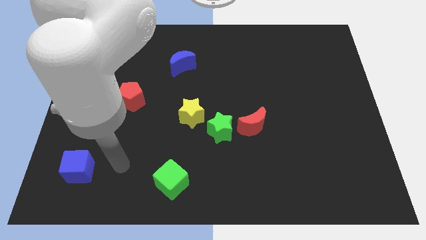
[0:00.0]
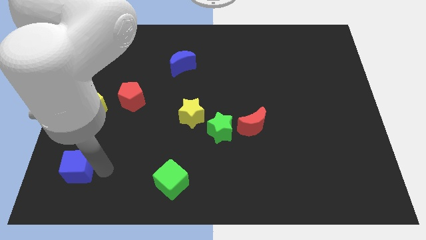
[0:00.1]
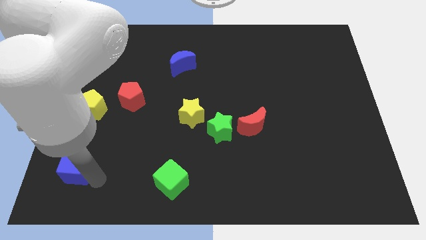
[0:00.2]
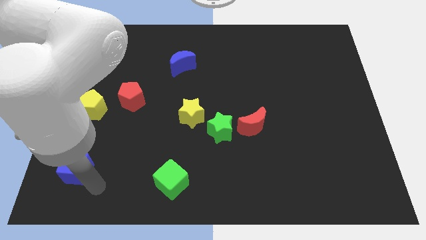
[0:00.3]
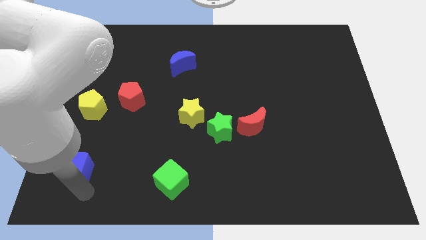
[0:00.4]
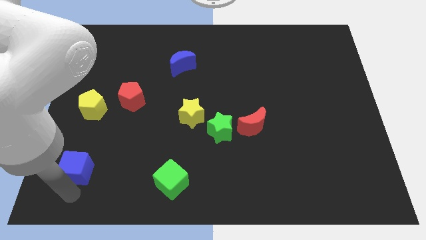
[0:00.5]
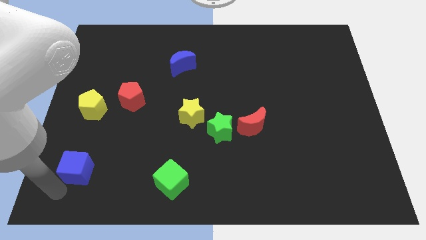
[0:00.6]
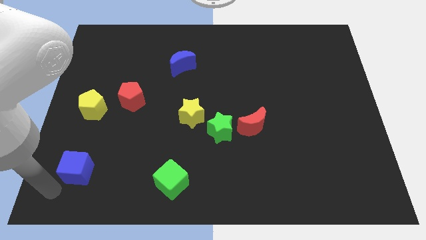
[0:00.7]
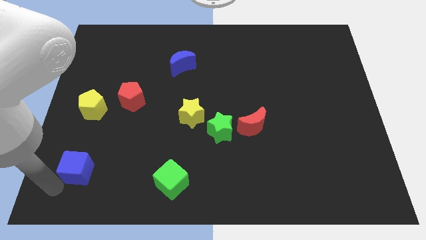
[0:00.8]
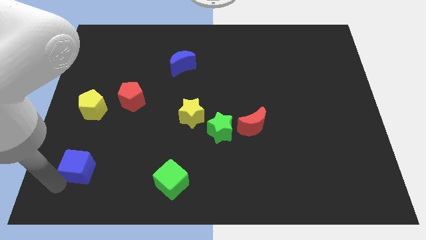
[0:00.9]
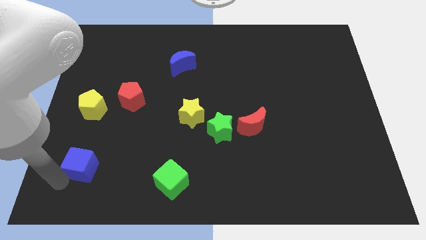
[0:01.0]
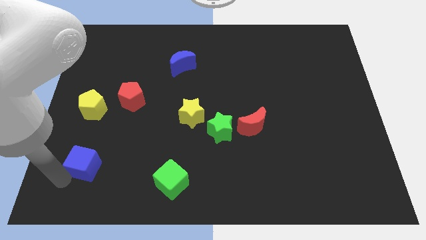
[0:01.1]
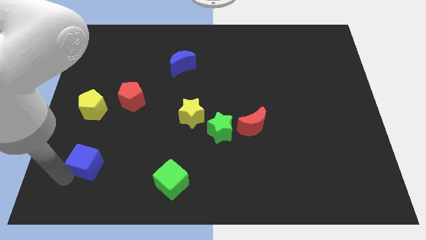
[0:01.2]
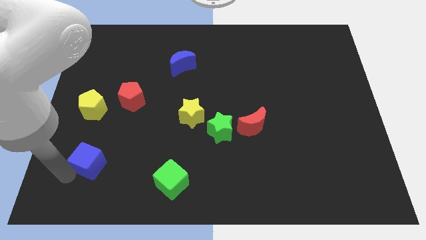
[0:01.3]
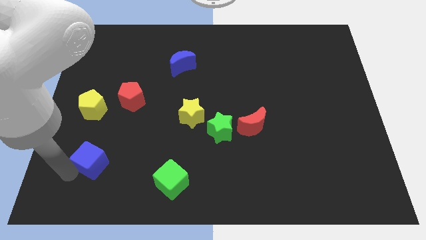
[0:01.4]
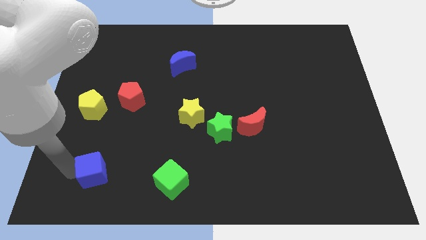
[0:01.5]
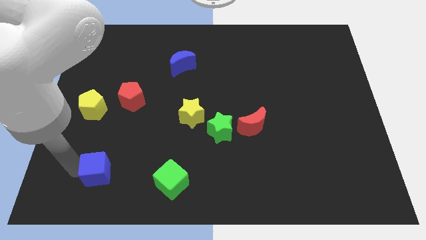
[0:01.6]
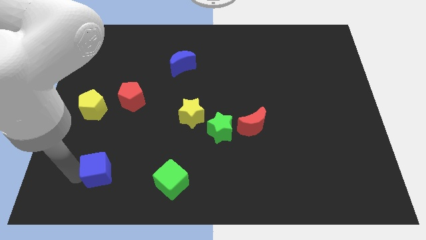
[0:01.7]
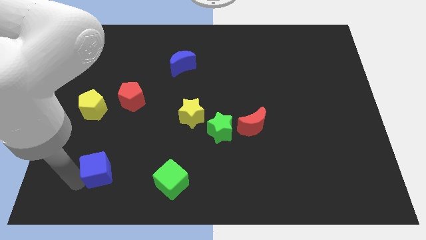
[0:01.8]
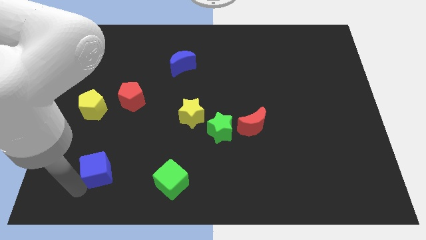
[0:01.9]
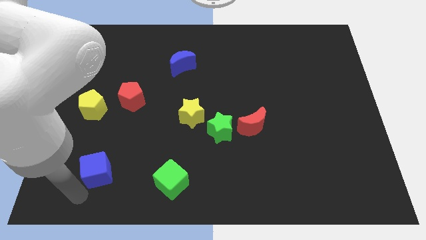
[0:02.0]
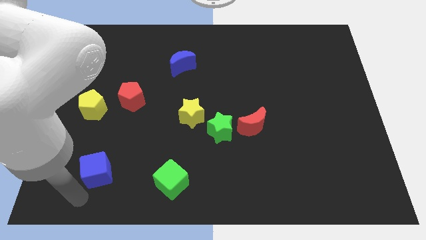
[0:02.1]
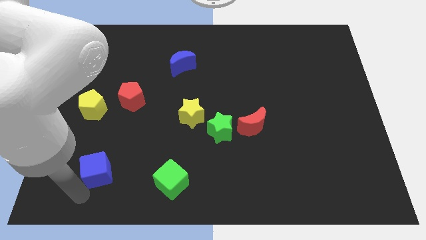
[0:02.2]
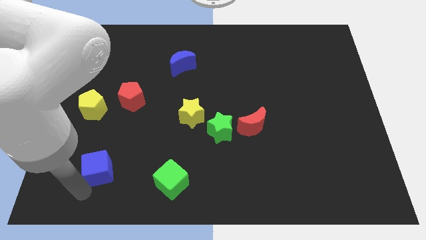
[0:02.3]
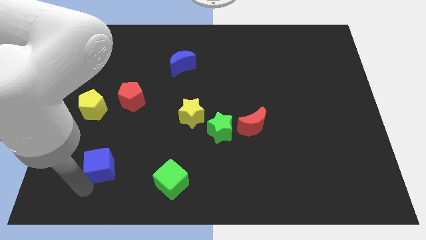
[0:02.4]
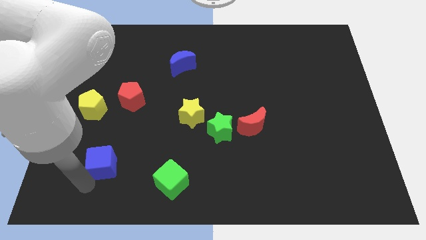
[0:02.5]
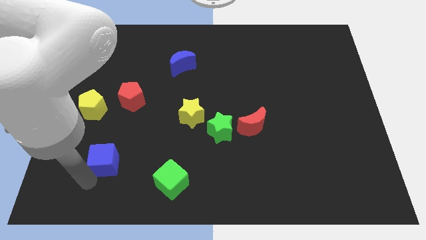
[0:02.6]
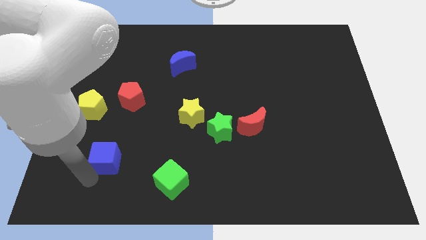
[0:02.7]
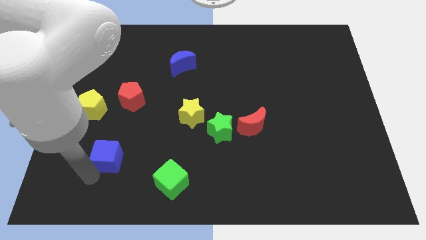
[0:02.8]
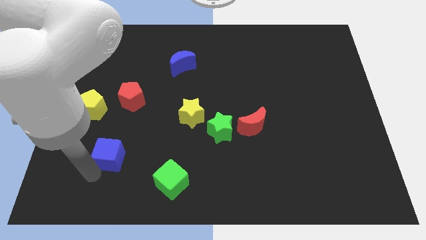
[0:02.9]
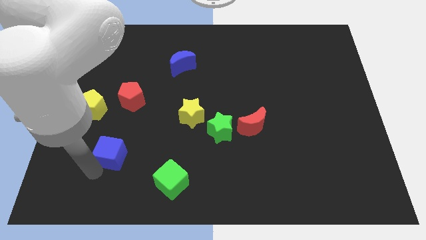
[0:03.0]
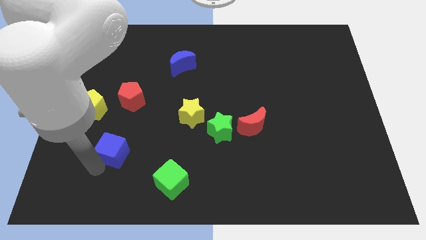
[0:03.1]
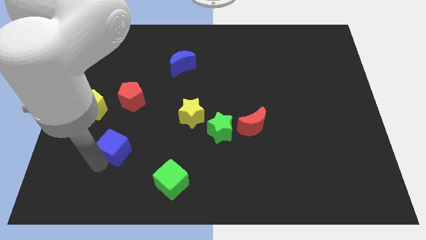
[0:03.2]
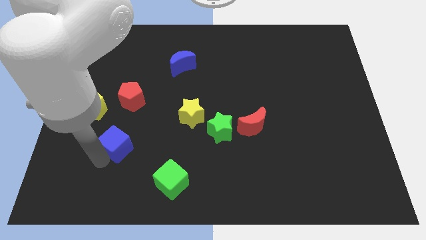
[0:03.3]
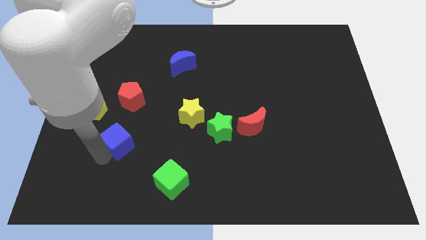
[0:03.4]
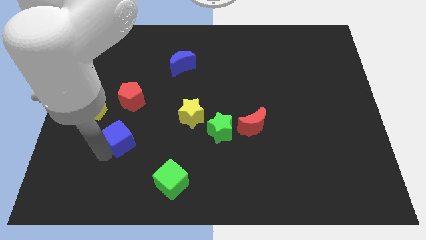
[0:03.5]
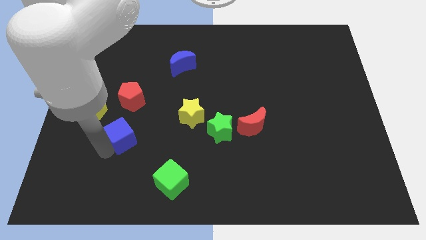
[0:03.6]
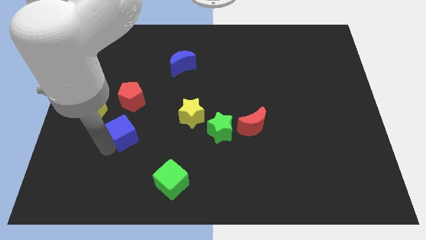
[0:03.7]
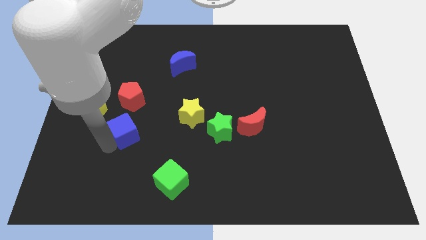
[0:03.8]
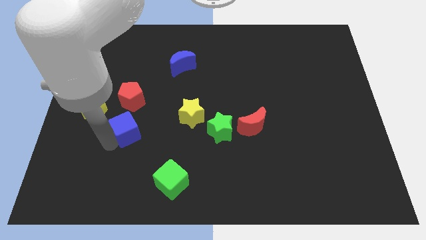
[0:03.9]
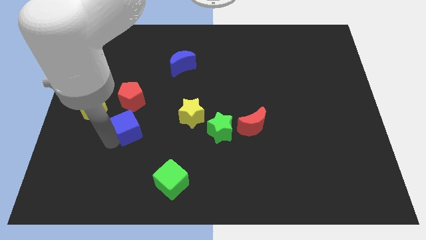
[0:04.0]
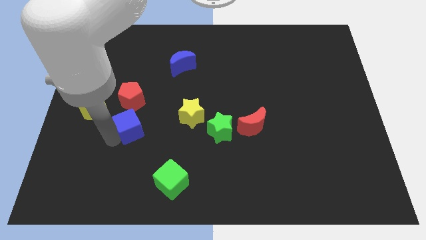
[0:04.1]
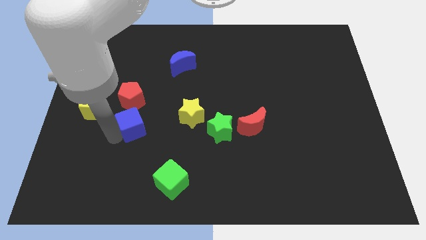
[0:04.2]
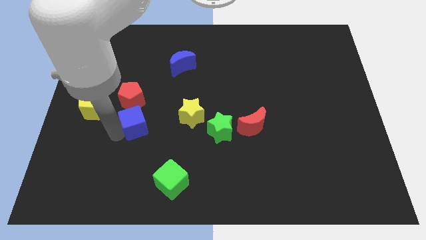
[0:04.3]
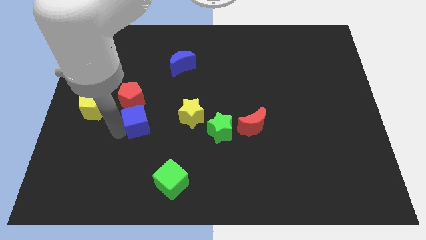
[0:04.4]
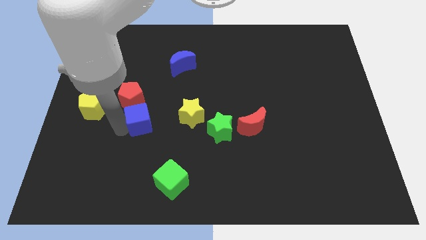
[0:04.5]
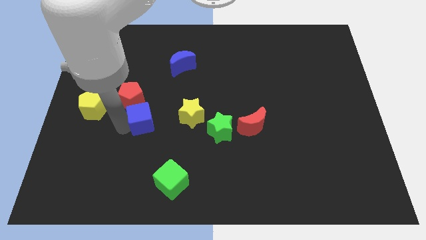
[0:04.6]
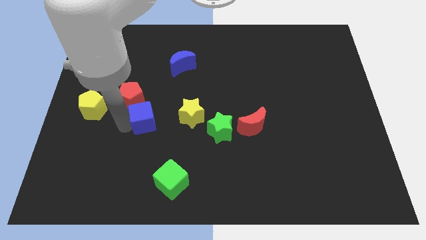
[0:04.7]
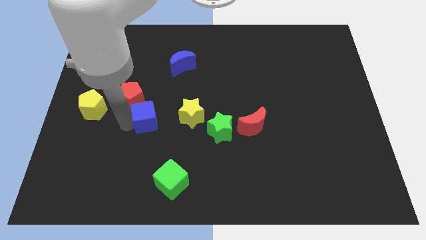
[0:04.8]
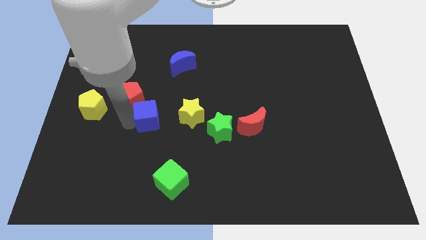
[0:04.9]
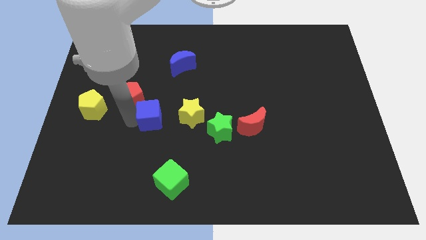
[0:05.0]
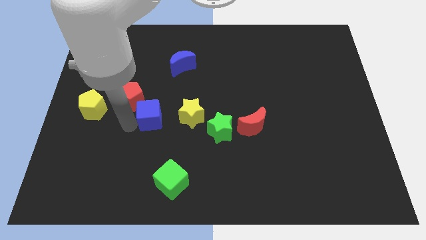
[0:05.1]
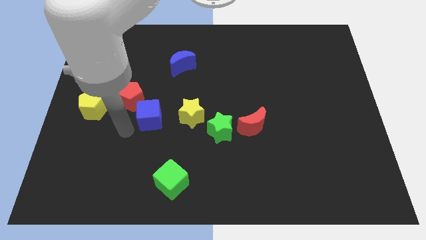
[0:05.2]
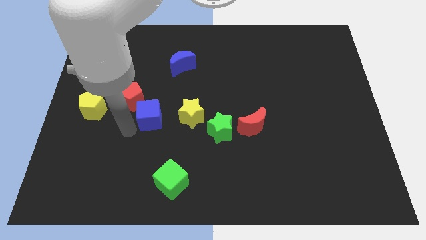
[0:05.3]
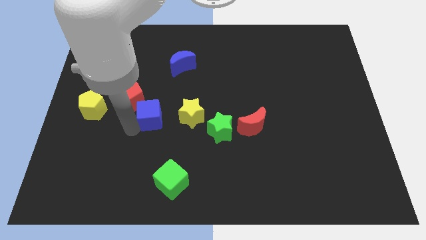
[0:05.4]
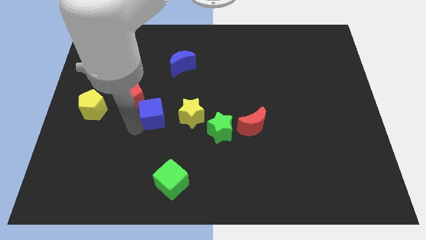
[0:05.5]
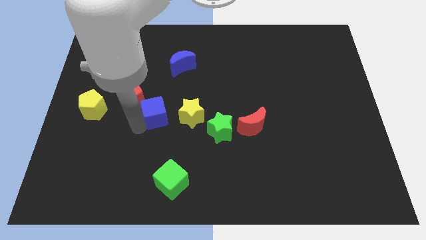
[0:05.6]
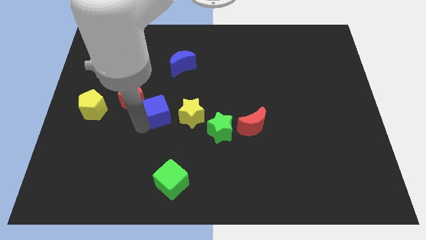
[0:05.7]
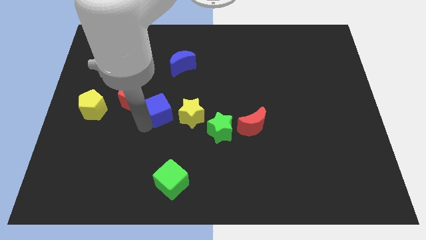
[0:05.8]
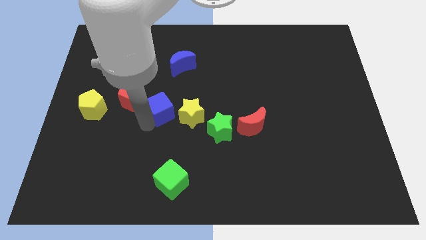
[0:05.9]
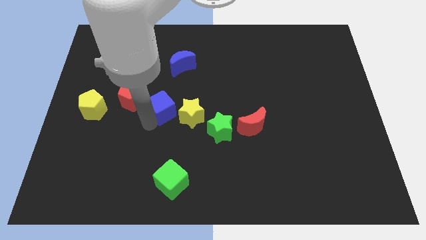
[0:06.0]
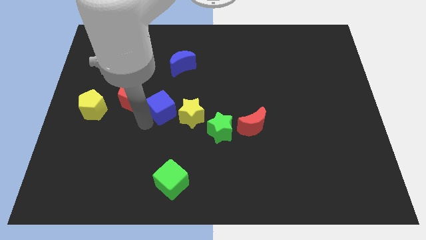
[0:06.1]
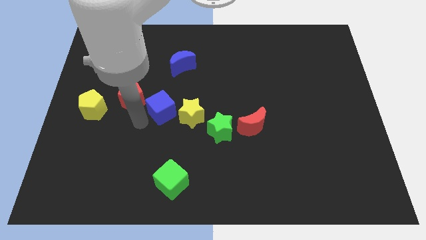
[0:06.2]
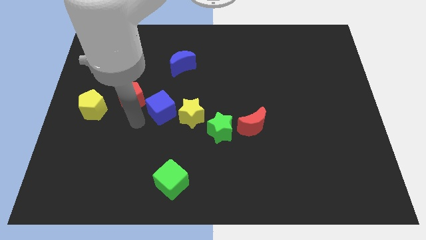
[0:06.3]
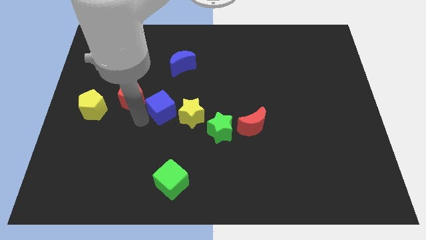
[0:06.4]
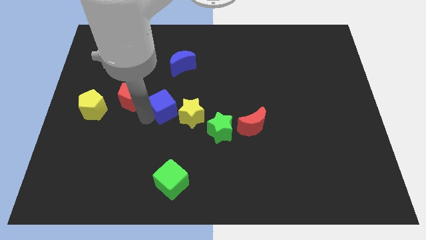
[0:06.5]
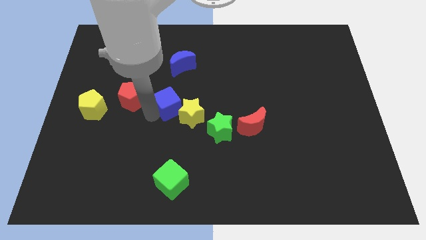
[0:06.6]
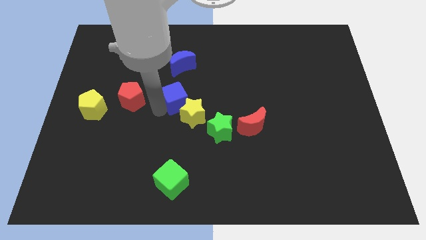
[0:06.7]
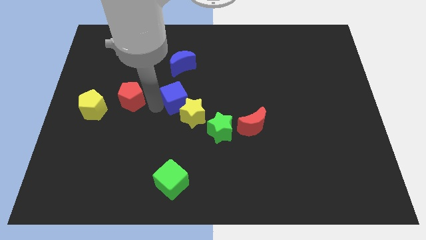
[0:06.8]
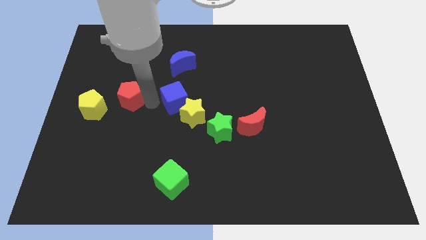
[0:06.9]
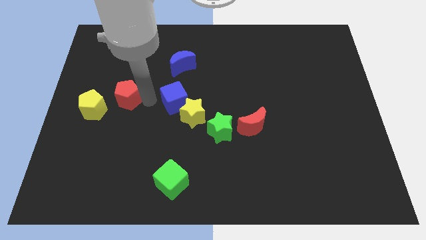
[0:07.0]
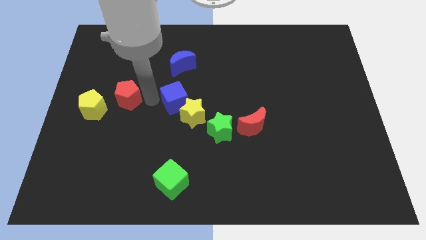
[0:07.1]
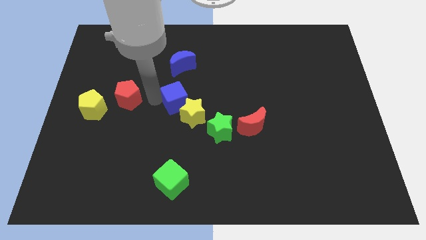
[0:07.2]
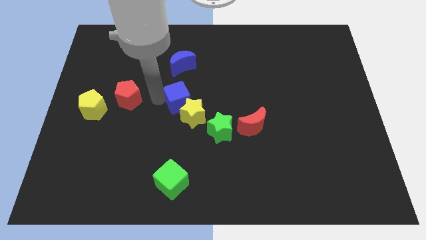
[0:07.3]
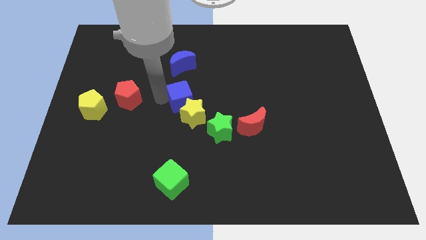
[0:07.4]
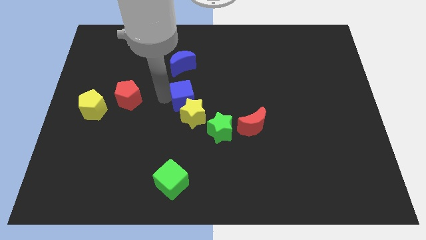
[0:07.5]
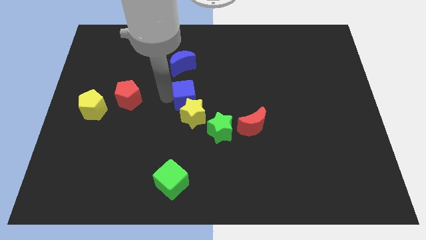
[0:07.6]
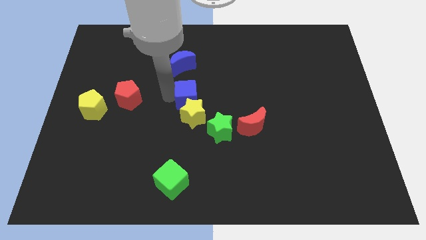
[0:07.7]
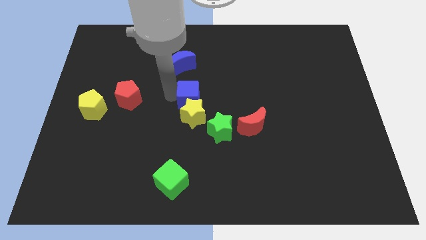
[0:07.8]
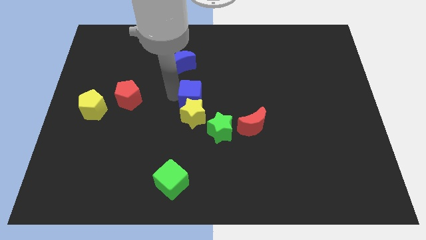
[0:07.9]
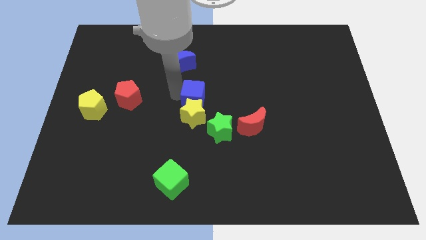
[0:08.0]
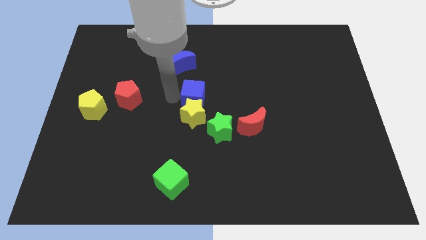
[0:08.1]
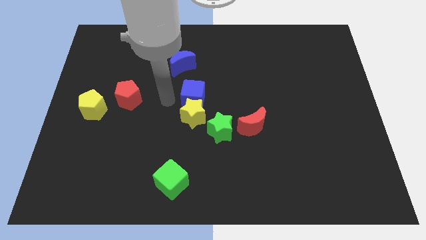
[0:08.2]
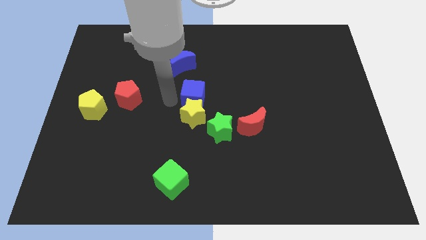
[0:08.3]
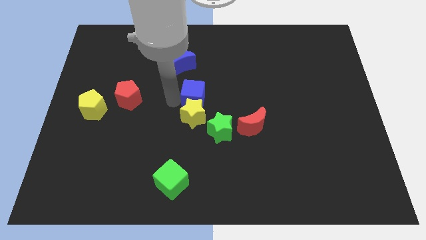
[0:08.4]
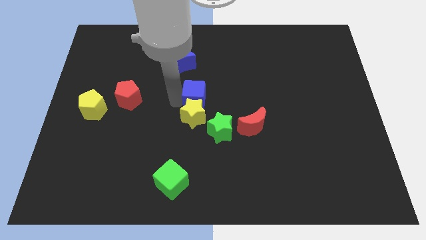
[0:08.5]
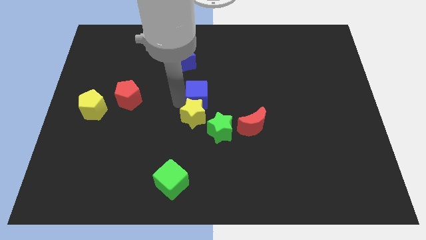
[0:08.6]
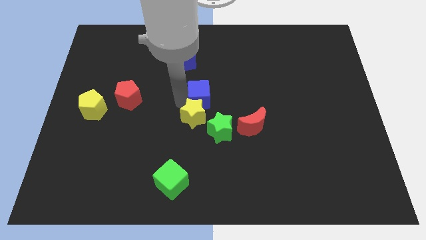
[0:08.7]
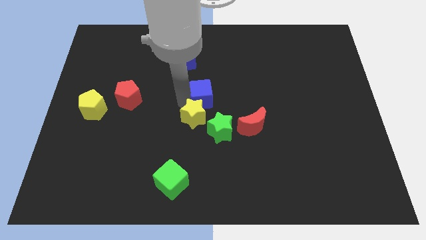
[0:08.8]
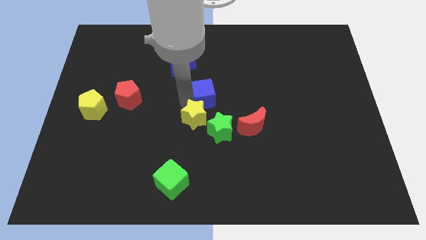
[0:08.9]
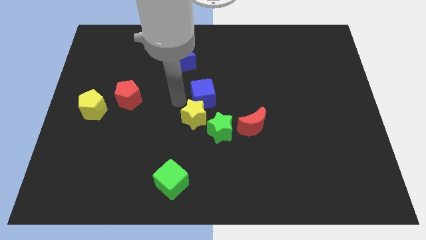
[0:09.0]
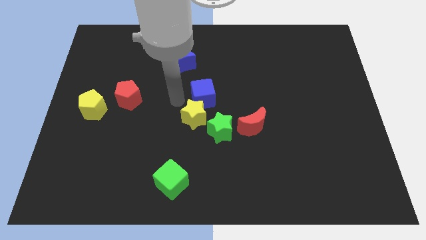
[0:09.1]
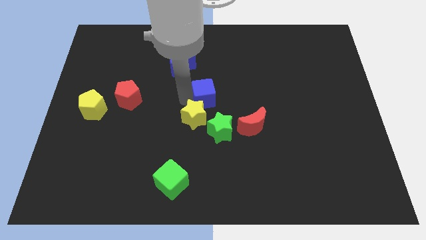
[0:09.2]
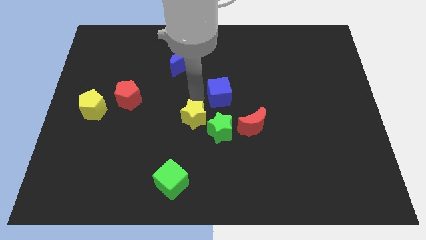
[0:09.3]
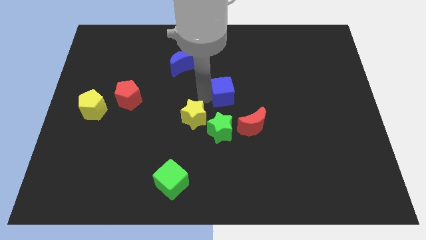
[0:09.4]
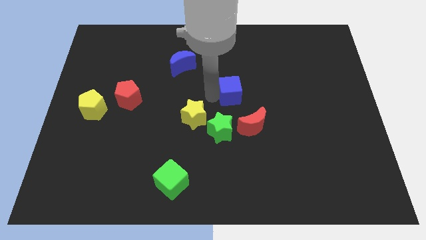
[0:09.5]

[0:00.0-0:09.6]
move the blue cube to the top of the red moon
